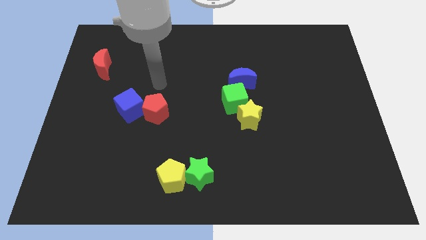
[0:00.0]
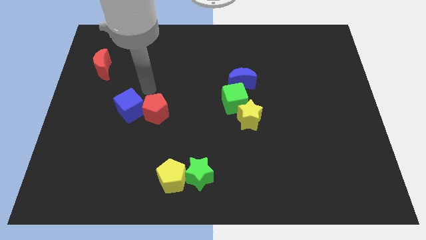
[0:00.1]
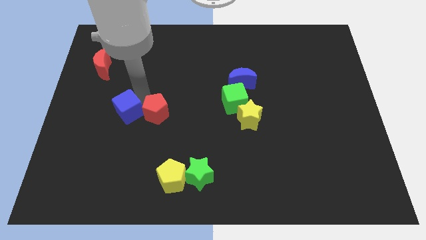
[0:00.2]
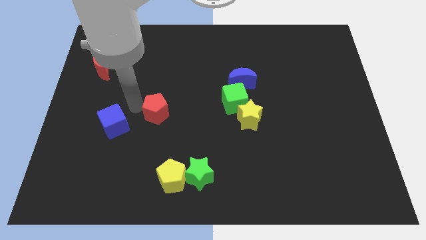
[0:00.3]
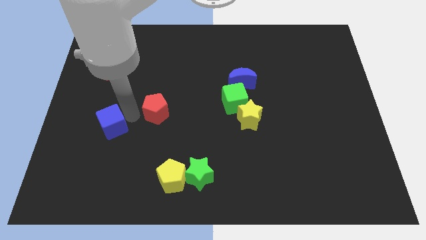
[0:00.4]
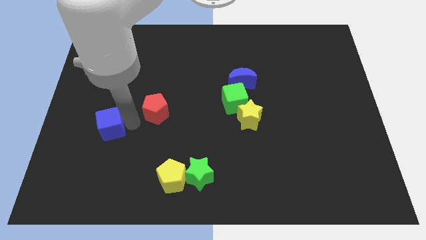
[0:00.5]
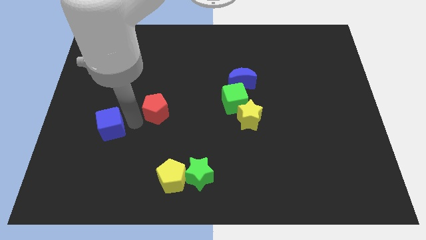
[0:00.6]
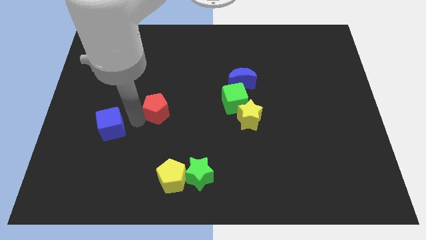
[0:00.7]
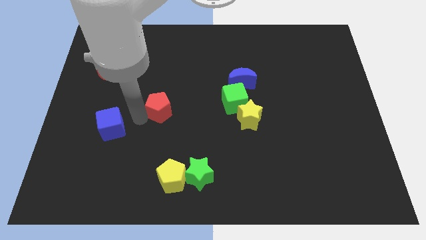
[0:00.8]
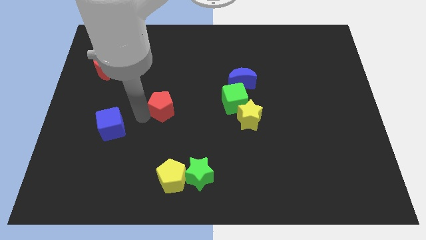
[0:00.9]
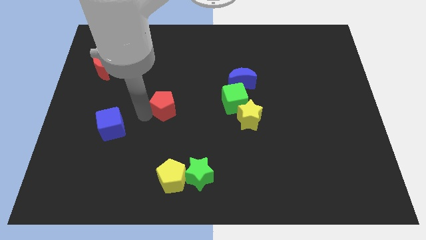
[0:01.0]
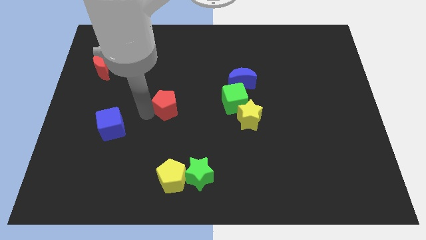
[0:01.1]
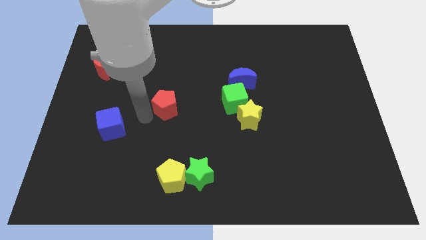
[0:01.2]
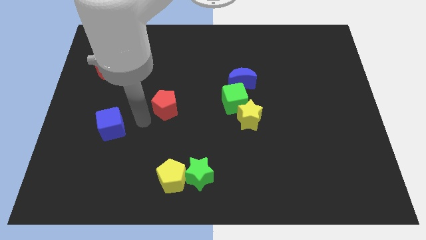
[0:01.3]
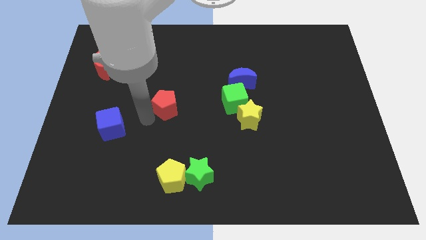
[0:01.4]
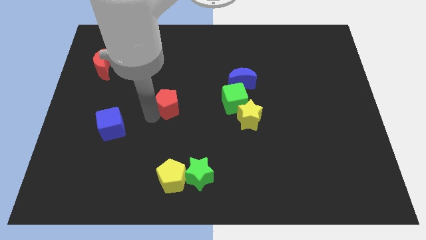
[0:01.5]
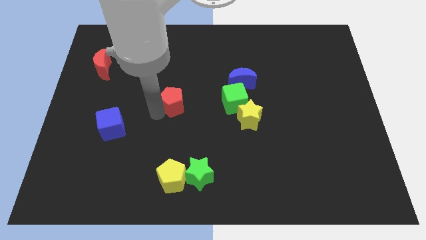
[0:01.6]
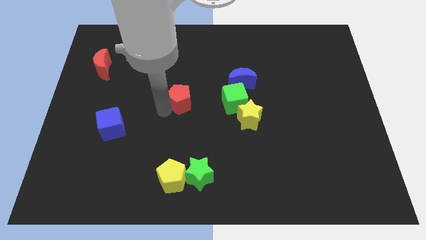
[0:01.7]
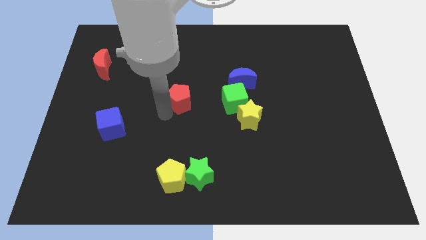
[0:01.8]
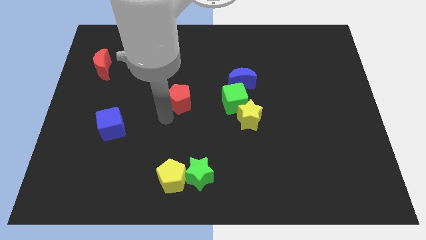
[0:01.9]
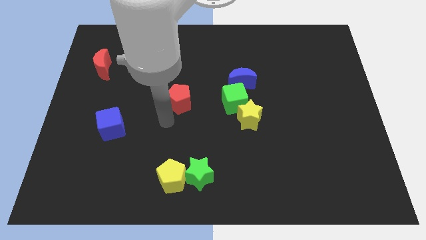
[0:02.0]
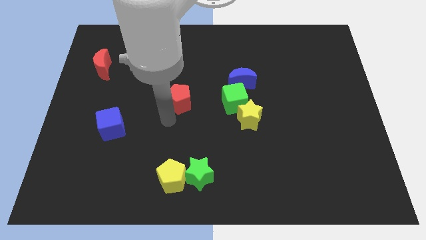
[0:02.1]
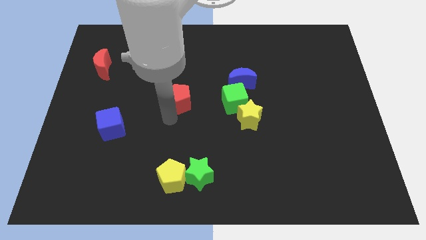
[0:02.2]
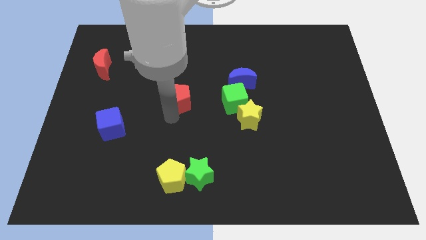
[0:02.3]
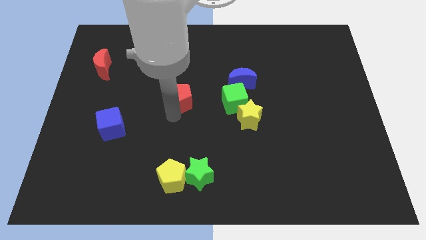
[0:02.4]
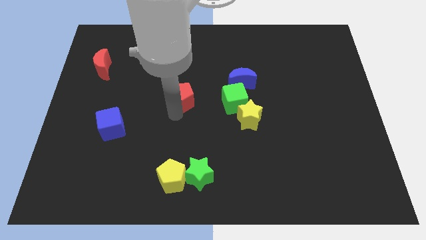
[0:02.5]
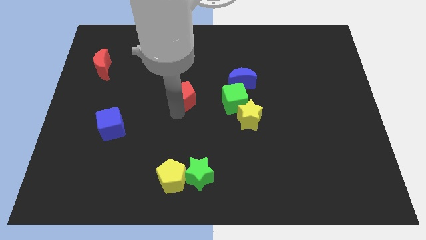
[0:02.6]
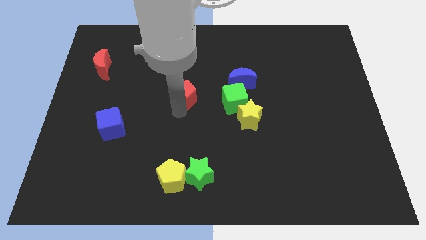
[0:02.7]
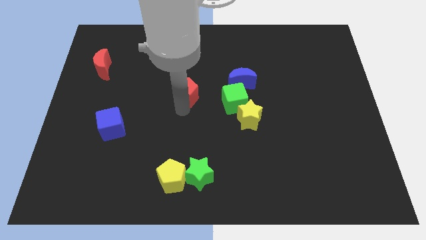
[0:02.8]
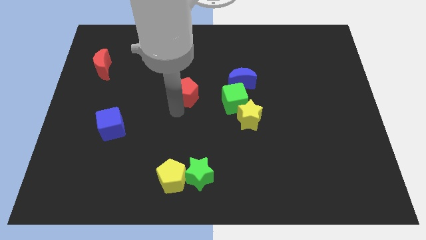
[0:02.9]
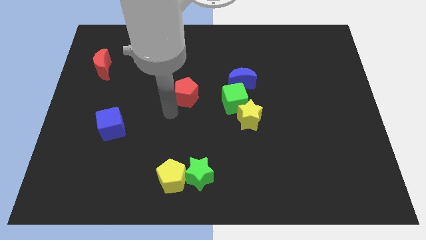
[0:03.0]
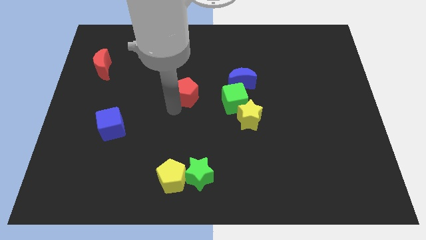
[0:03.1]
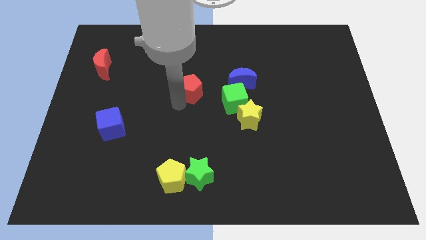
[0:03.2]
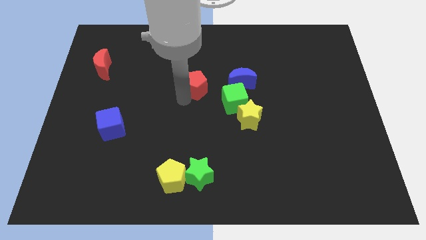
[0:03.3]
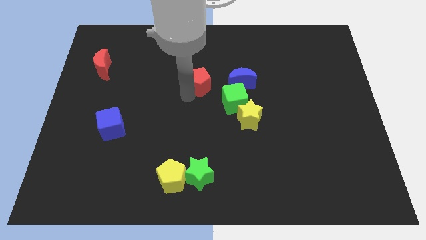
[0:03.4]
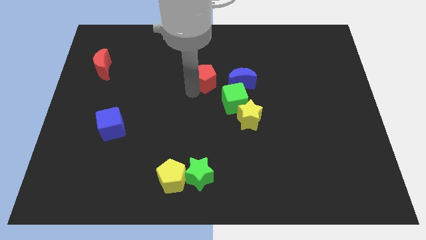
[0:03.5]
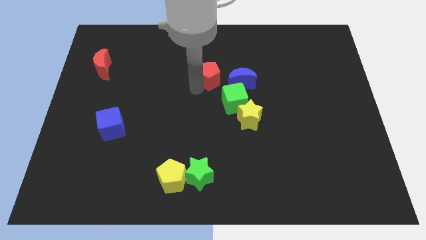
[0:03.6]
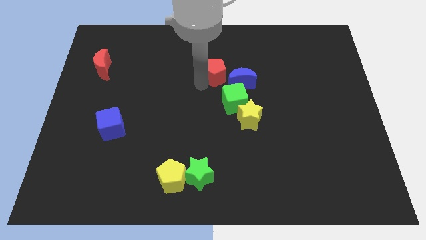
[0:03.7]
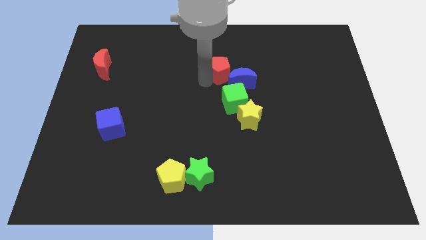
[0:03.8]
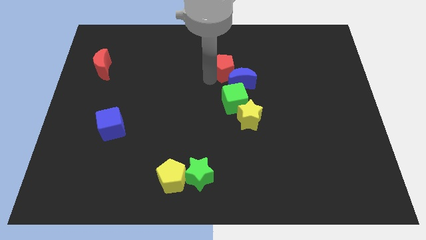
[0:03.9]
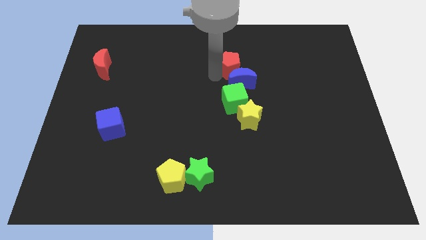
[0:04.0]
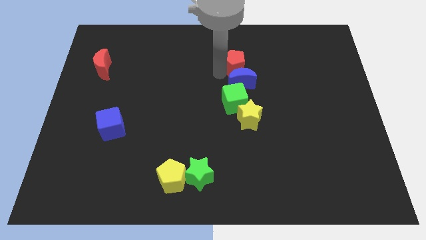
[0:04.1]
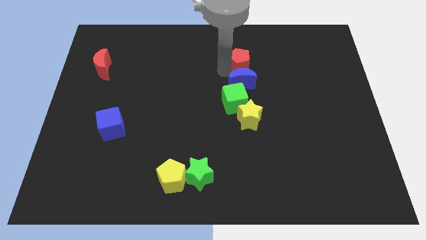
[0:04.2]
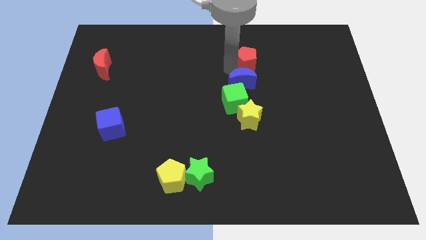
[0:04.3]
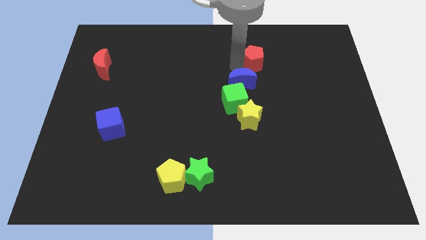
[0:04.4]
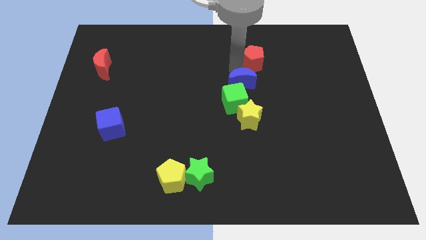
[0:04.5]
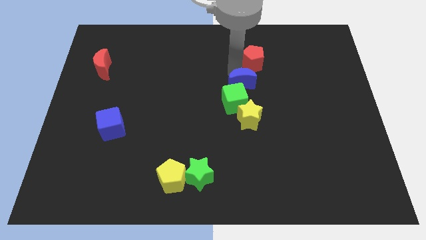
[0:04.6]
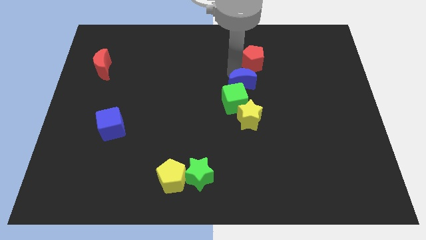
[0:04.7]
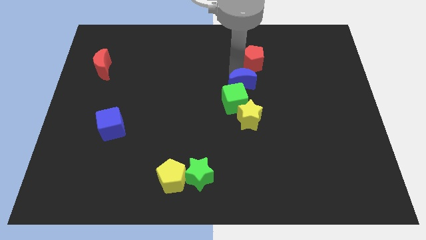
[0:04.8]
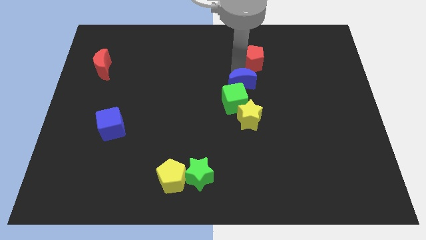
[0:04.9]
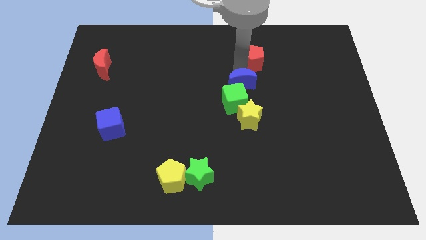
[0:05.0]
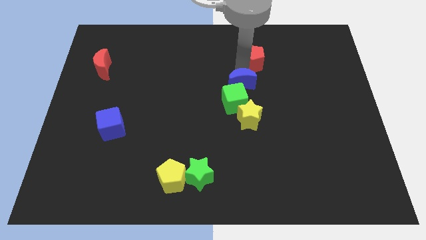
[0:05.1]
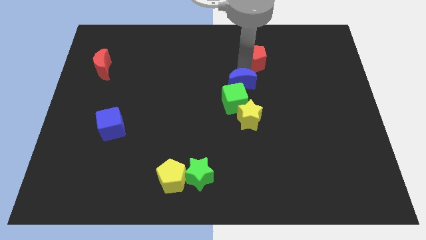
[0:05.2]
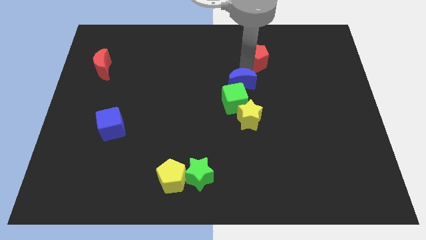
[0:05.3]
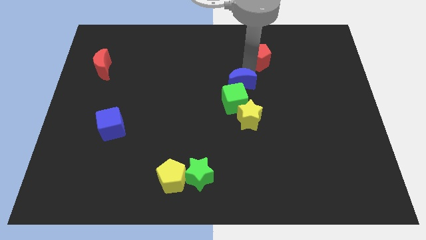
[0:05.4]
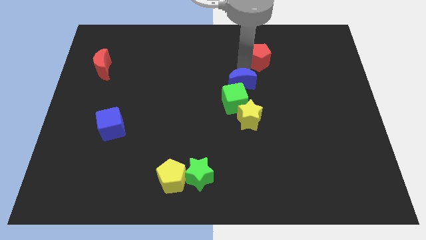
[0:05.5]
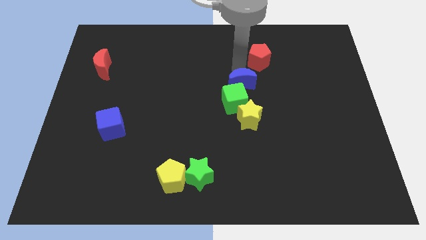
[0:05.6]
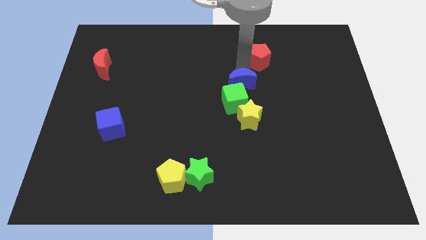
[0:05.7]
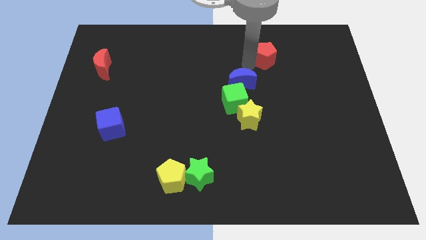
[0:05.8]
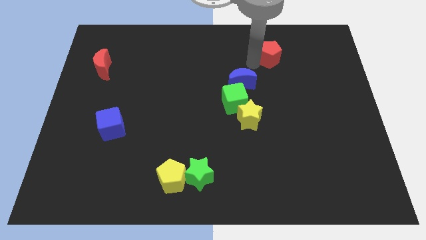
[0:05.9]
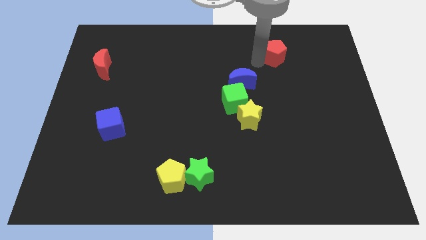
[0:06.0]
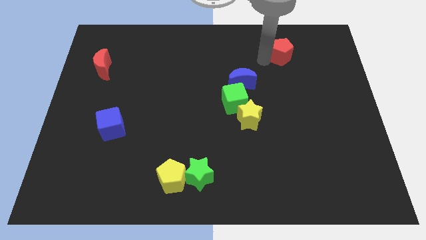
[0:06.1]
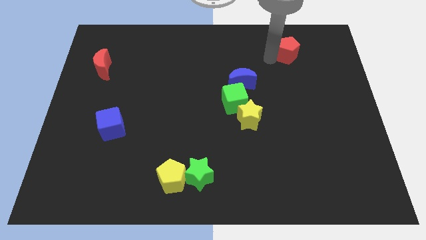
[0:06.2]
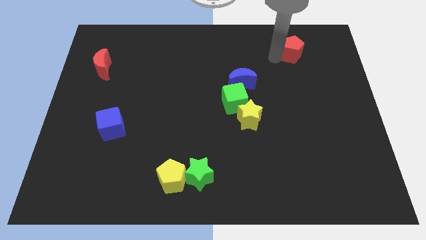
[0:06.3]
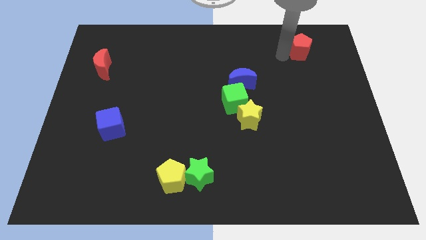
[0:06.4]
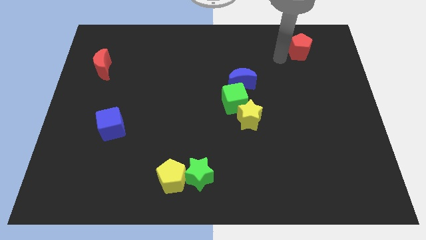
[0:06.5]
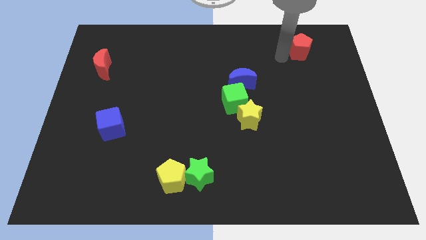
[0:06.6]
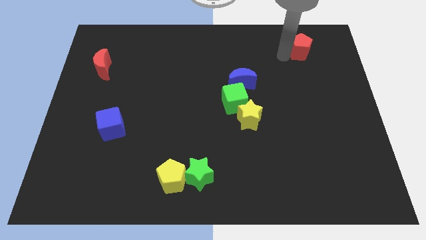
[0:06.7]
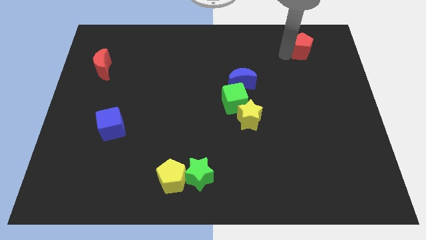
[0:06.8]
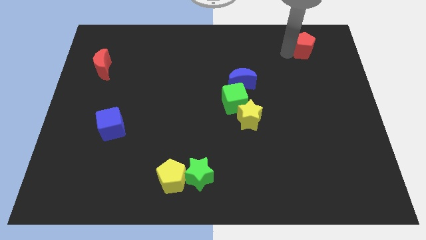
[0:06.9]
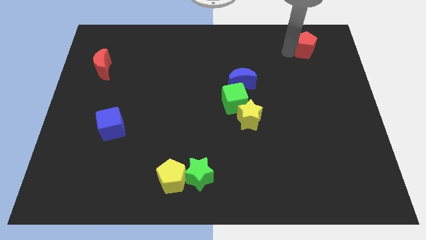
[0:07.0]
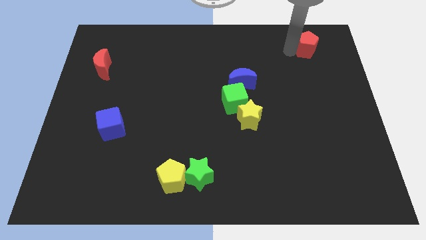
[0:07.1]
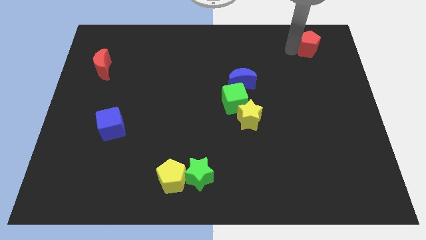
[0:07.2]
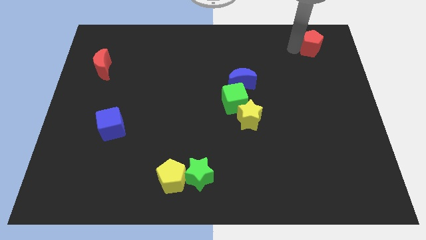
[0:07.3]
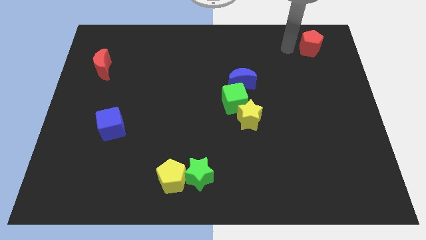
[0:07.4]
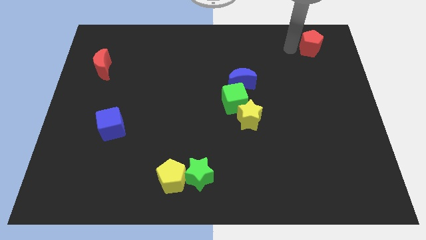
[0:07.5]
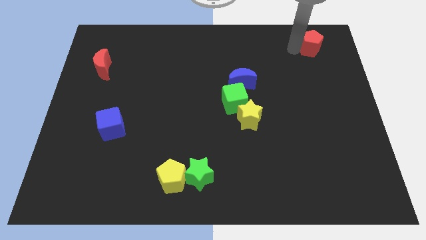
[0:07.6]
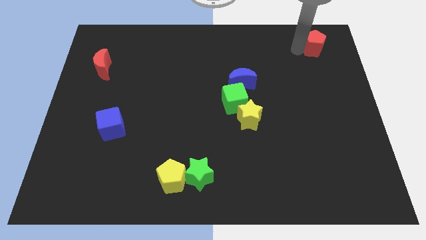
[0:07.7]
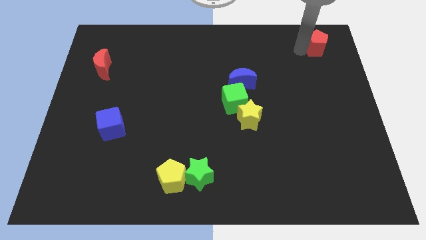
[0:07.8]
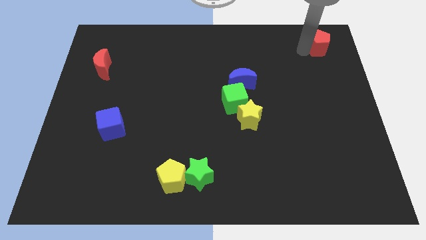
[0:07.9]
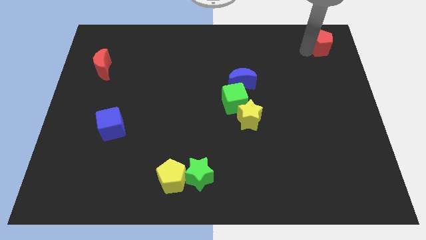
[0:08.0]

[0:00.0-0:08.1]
put the red pentagon to the upper right corner
